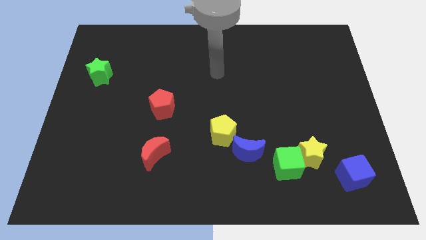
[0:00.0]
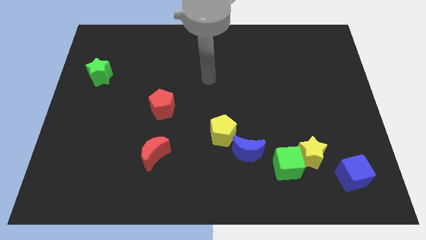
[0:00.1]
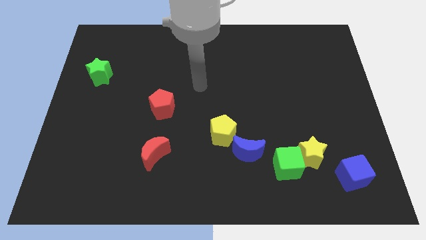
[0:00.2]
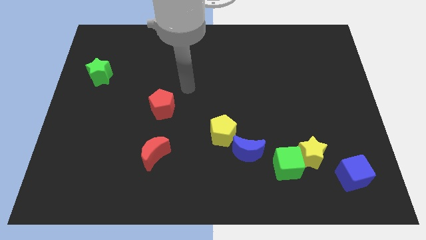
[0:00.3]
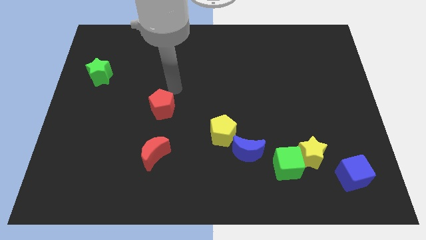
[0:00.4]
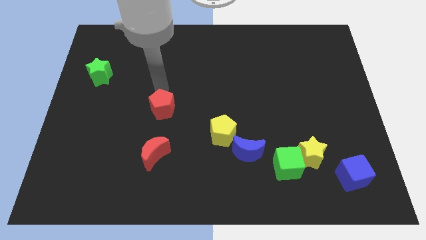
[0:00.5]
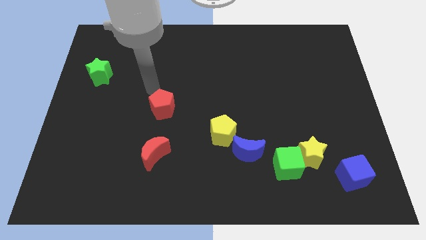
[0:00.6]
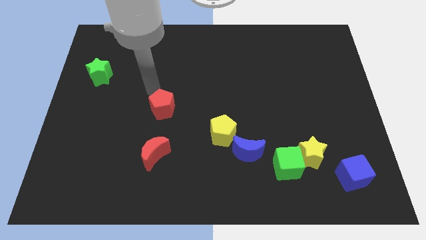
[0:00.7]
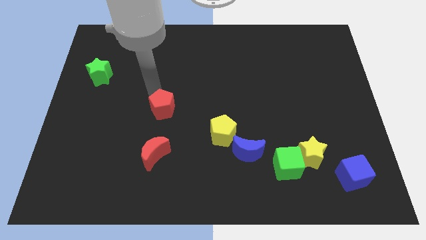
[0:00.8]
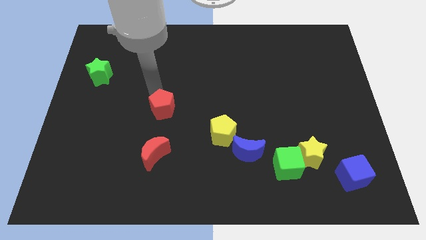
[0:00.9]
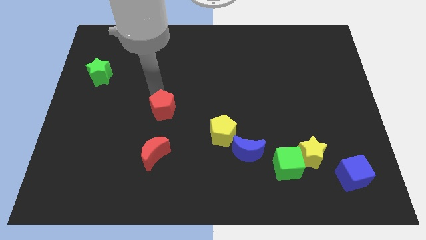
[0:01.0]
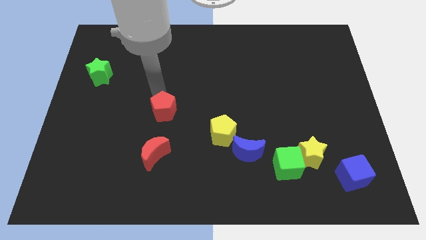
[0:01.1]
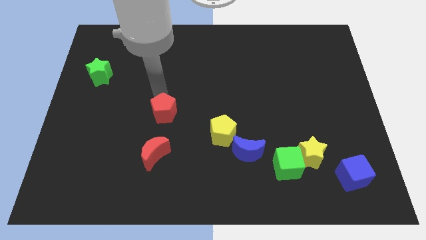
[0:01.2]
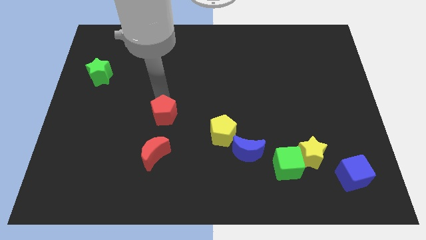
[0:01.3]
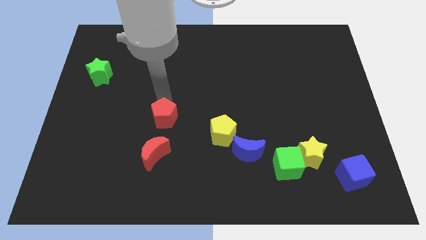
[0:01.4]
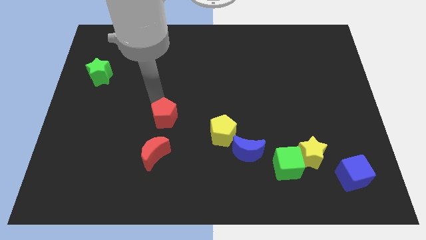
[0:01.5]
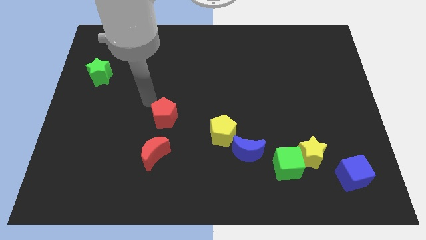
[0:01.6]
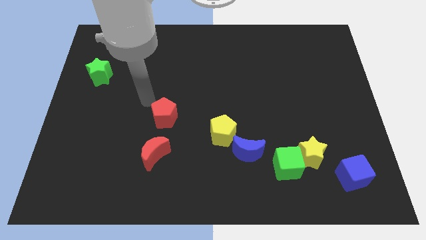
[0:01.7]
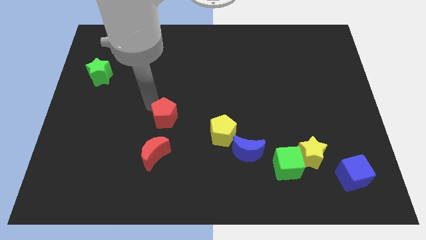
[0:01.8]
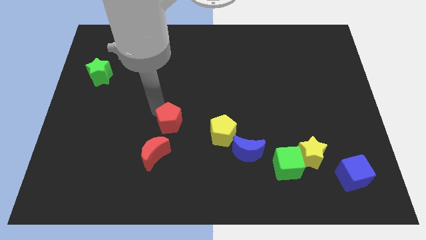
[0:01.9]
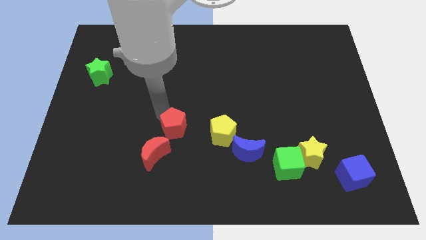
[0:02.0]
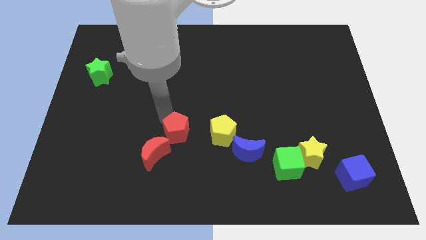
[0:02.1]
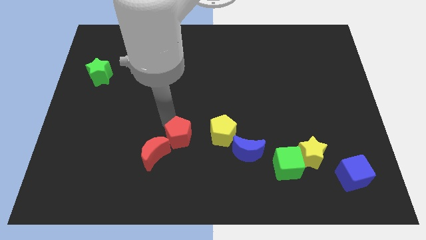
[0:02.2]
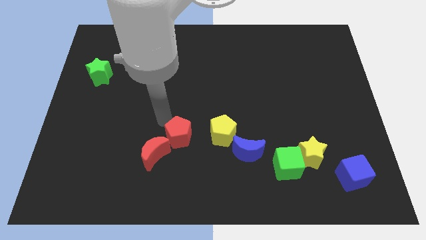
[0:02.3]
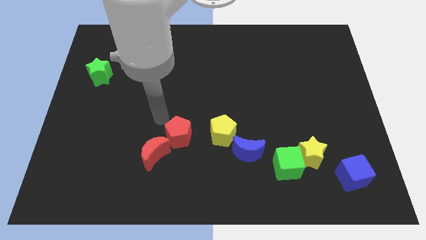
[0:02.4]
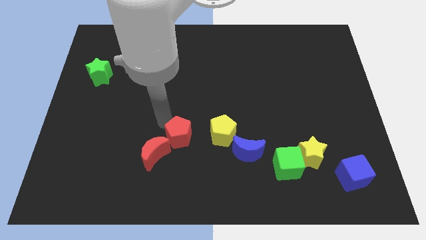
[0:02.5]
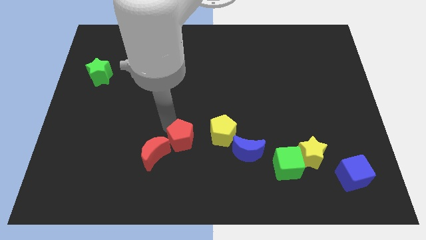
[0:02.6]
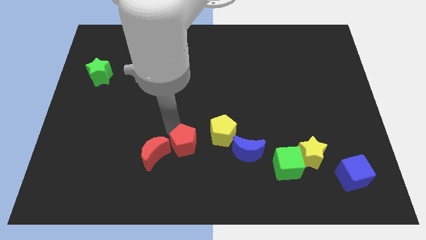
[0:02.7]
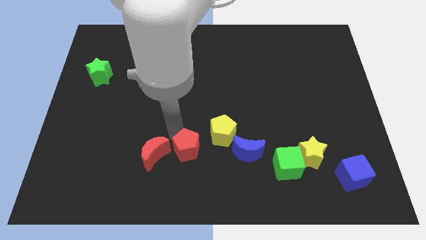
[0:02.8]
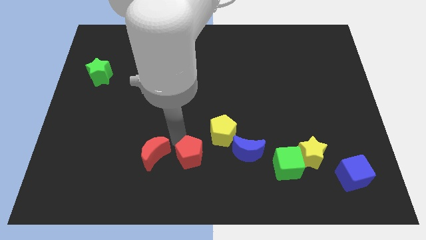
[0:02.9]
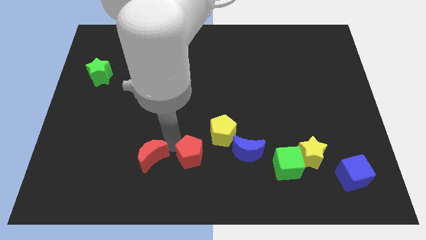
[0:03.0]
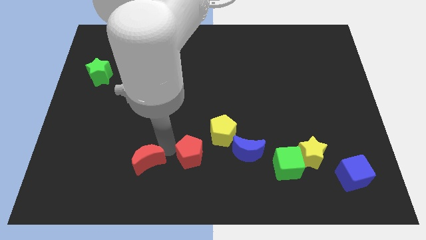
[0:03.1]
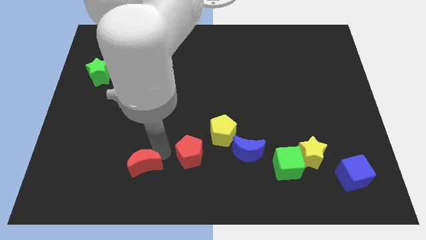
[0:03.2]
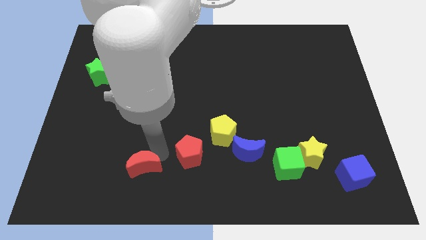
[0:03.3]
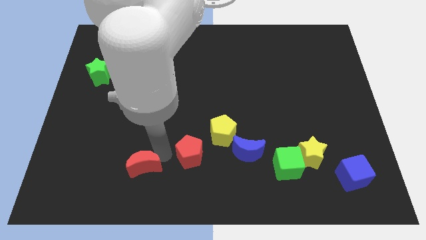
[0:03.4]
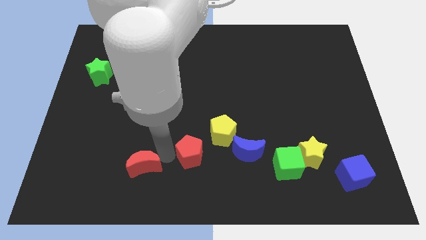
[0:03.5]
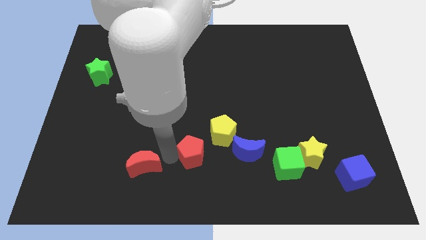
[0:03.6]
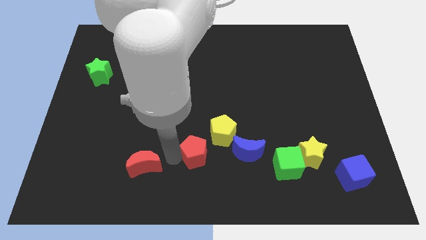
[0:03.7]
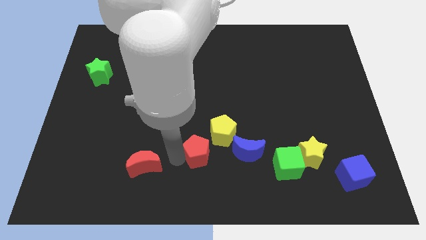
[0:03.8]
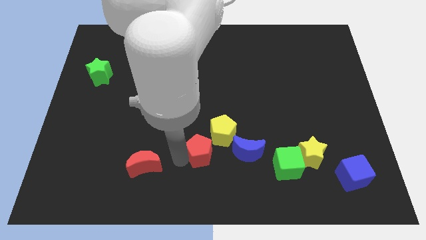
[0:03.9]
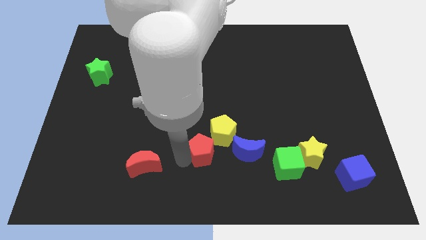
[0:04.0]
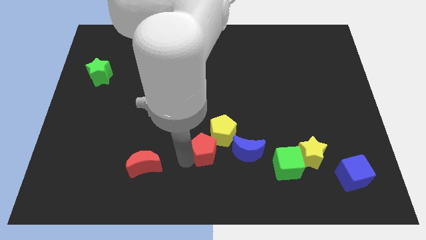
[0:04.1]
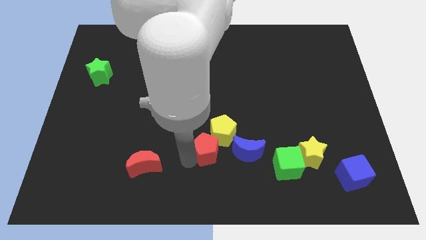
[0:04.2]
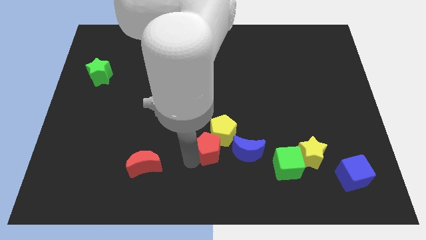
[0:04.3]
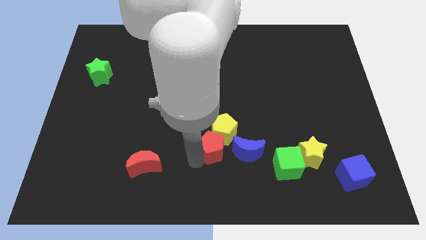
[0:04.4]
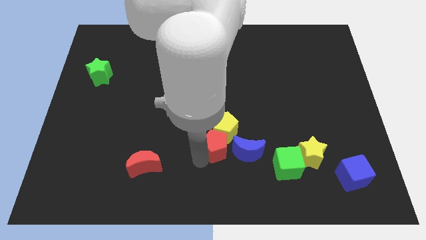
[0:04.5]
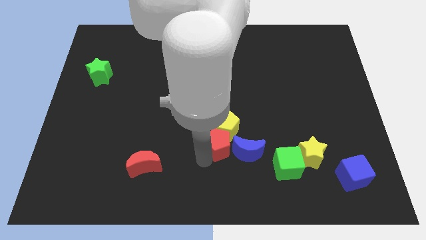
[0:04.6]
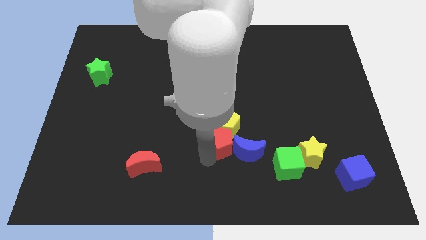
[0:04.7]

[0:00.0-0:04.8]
put the red pentagon towards the blue moon

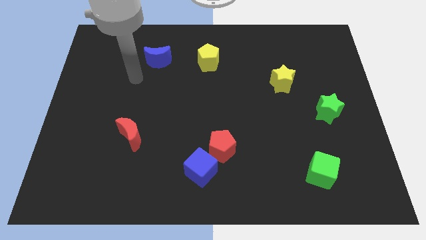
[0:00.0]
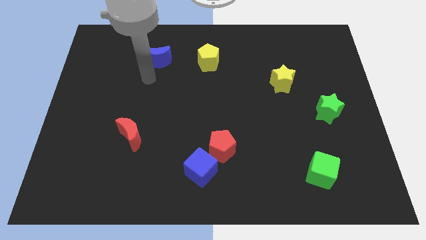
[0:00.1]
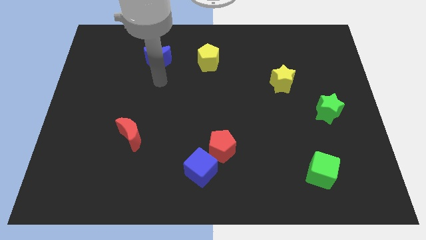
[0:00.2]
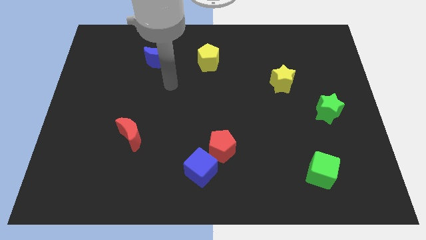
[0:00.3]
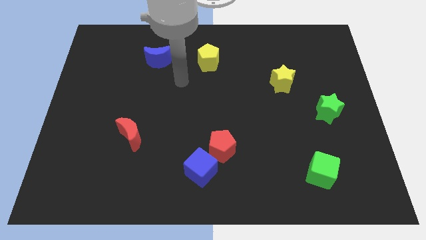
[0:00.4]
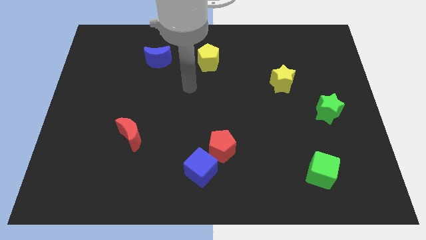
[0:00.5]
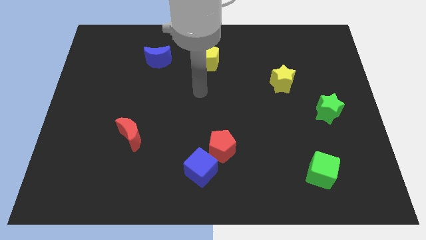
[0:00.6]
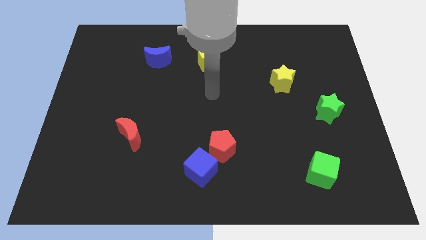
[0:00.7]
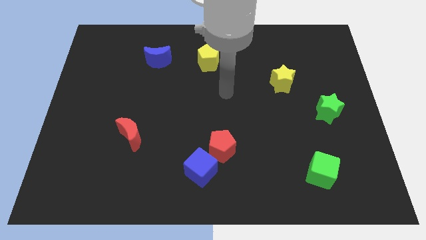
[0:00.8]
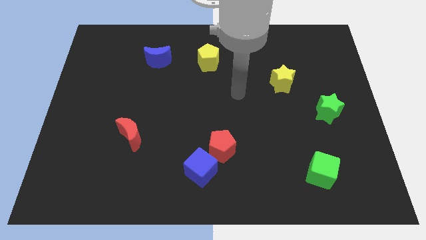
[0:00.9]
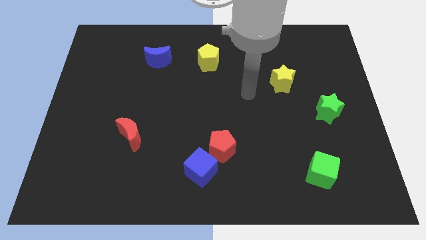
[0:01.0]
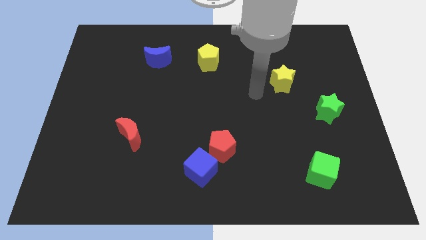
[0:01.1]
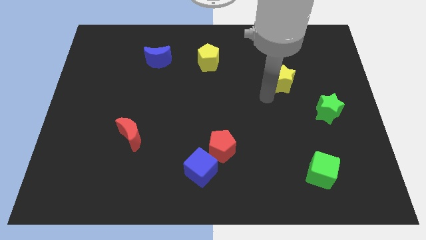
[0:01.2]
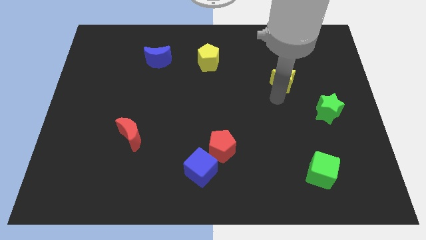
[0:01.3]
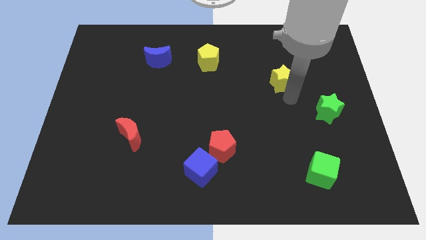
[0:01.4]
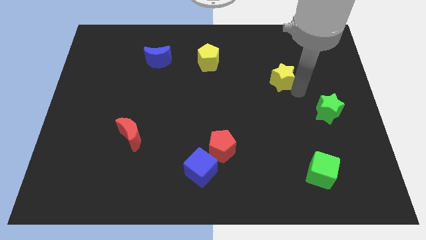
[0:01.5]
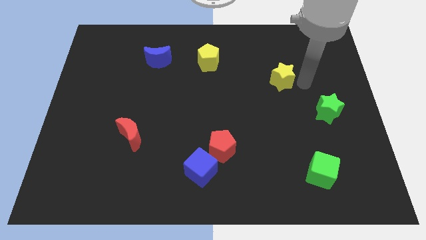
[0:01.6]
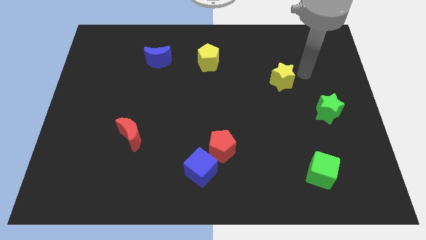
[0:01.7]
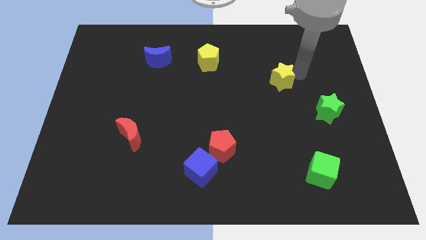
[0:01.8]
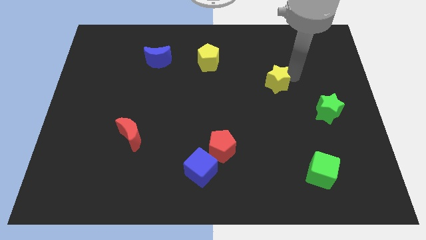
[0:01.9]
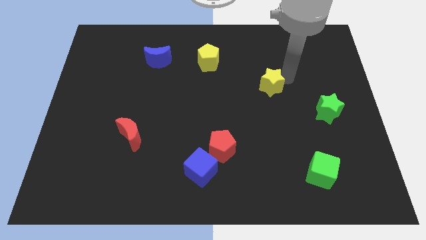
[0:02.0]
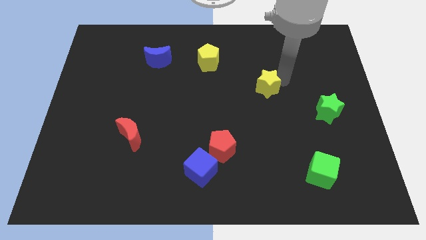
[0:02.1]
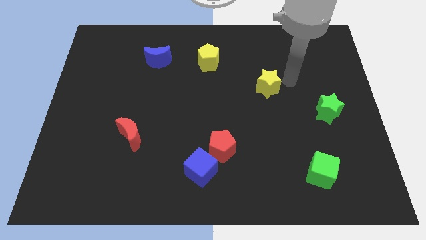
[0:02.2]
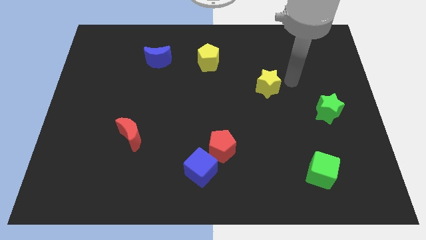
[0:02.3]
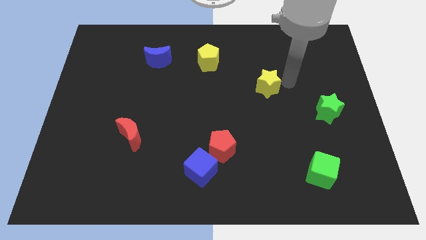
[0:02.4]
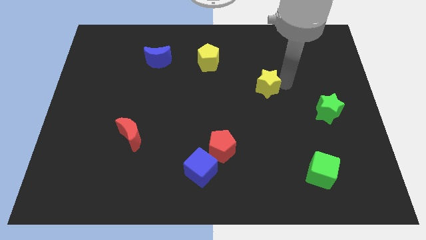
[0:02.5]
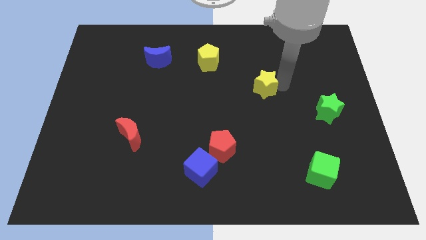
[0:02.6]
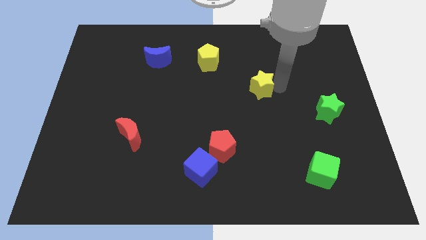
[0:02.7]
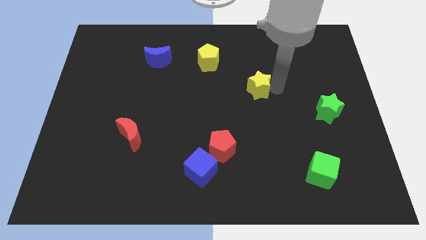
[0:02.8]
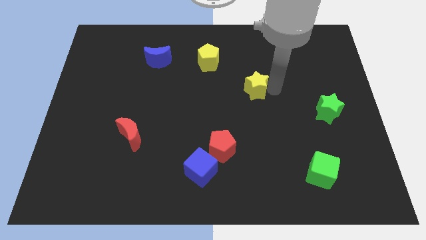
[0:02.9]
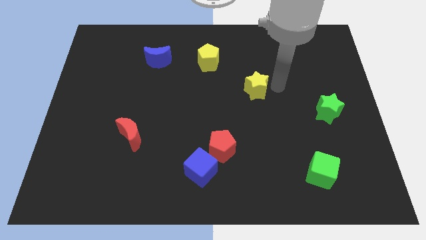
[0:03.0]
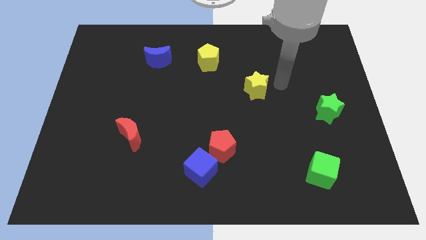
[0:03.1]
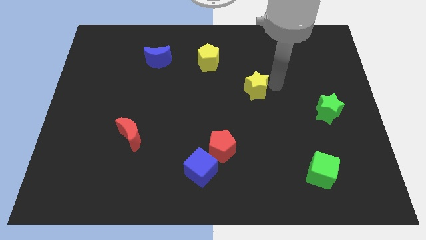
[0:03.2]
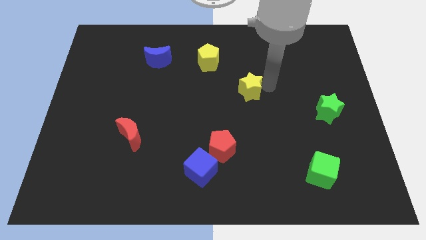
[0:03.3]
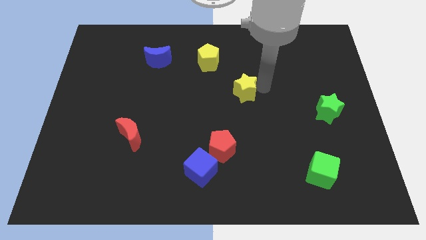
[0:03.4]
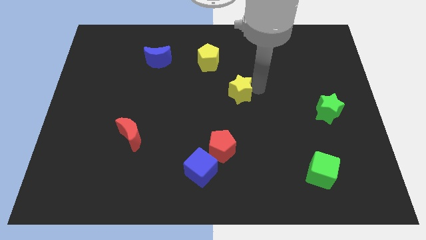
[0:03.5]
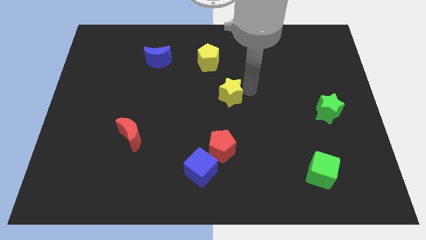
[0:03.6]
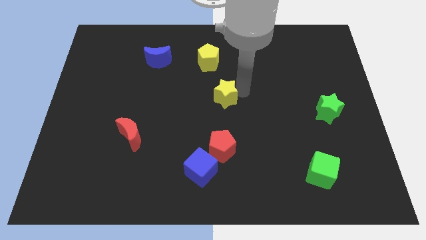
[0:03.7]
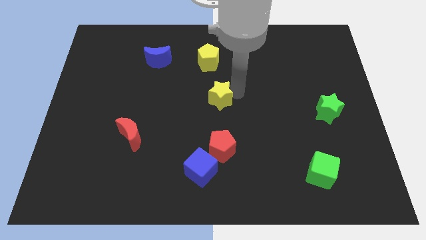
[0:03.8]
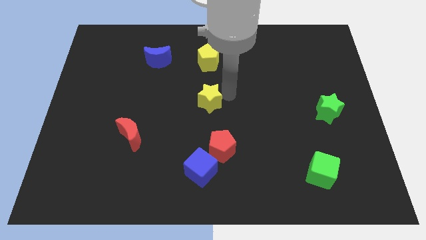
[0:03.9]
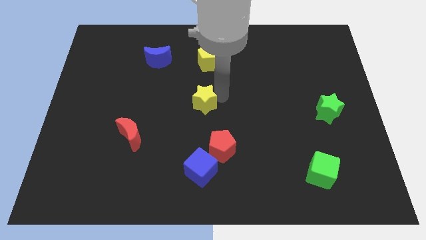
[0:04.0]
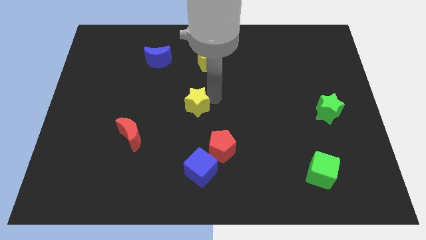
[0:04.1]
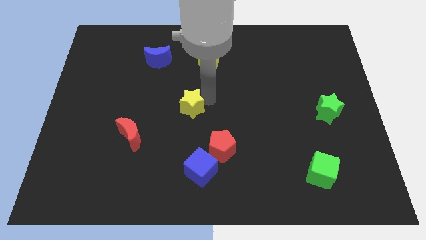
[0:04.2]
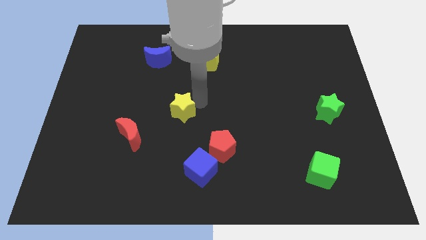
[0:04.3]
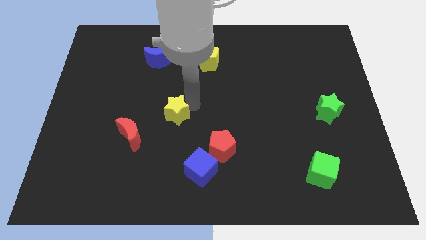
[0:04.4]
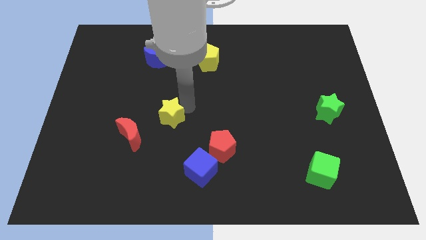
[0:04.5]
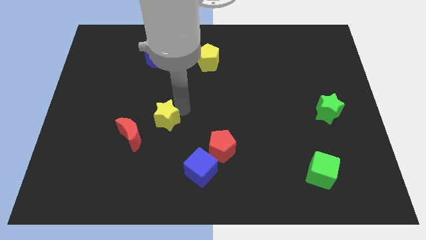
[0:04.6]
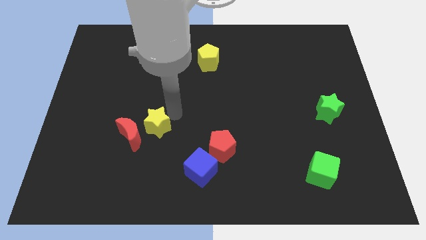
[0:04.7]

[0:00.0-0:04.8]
put the yellow star towards the red moon
